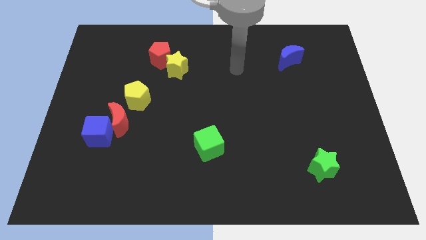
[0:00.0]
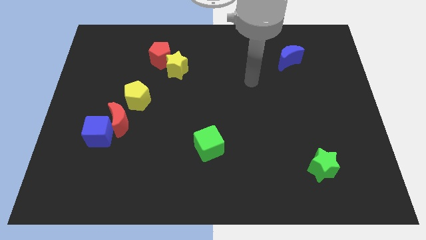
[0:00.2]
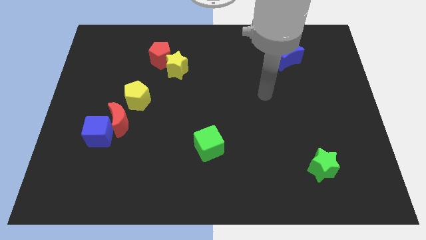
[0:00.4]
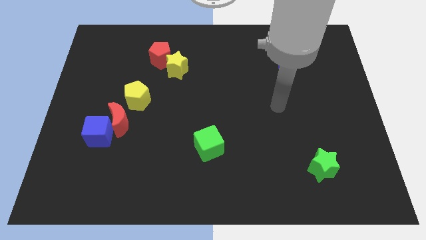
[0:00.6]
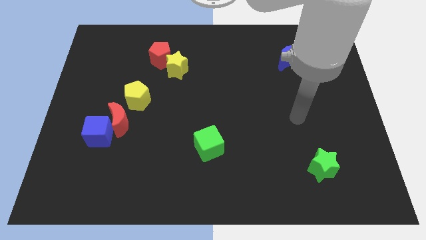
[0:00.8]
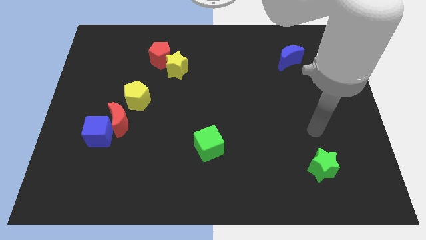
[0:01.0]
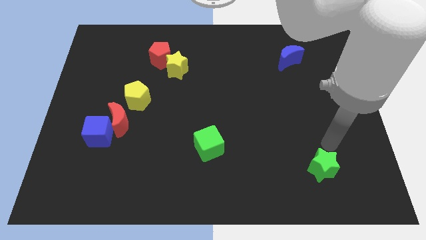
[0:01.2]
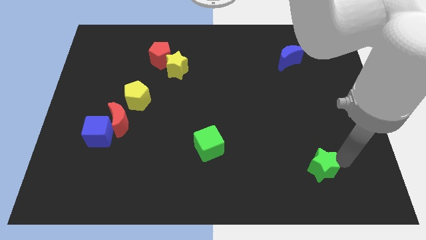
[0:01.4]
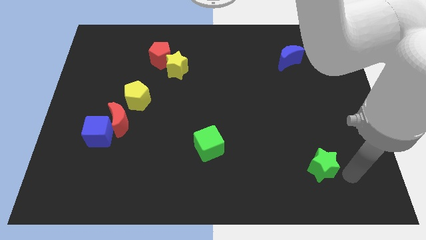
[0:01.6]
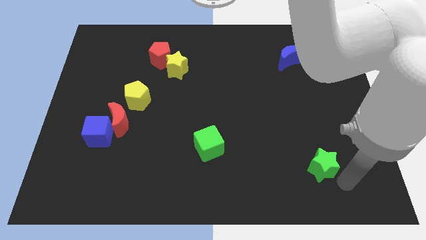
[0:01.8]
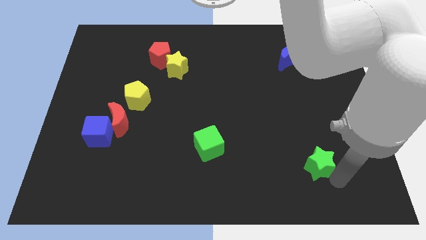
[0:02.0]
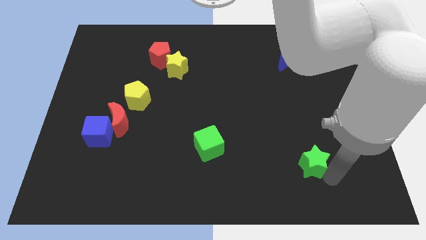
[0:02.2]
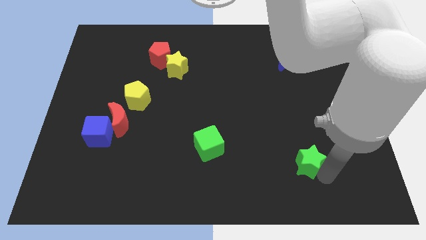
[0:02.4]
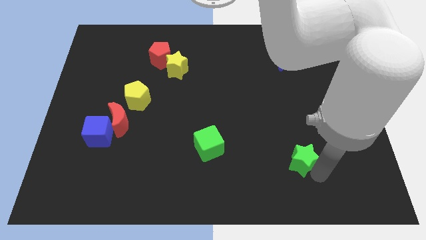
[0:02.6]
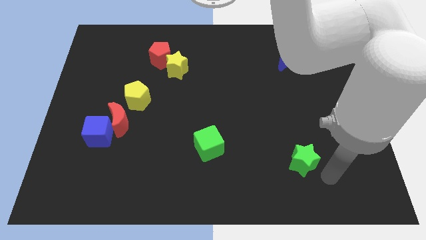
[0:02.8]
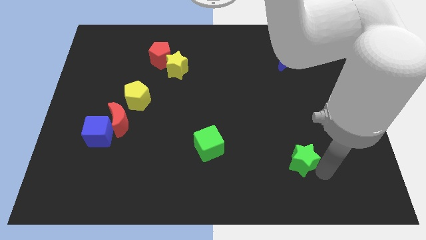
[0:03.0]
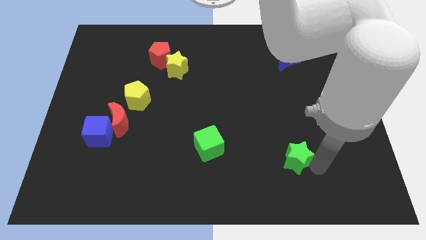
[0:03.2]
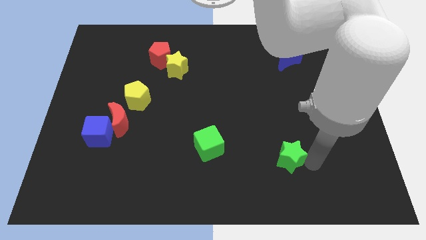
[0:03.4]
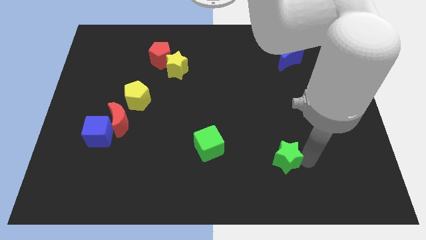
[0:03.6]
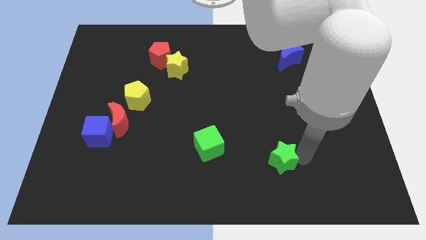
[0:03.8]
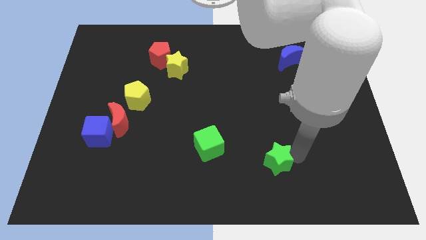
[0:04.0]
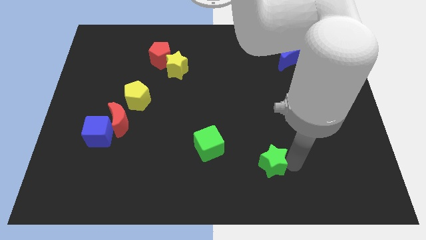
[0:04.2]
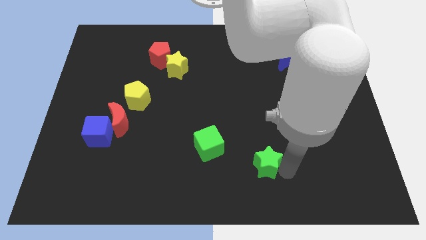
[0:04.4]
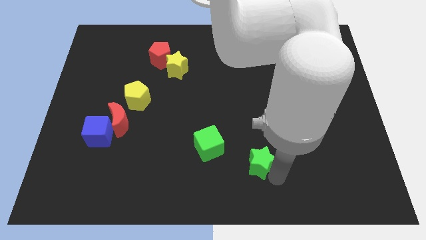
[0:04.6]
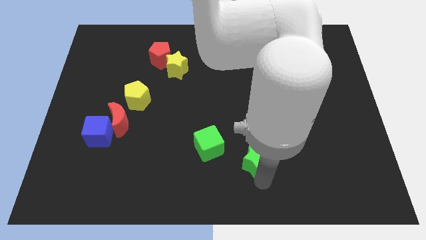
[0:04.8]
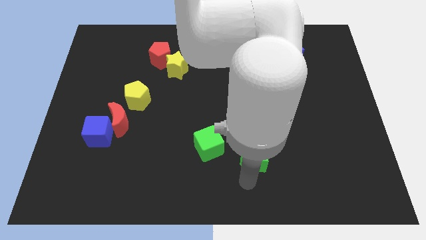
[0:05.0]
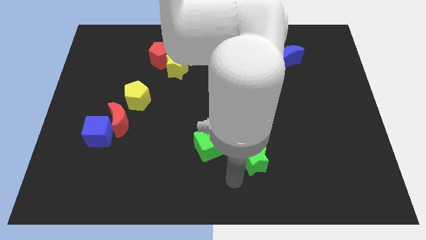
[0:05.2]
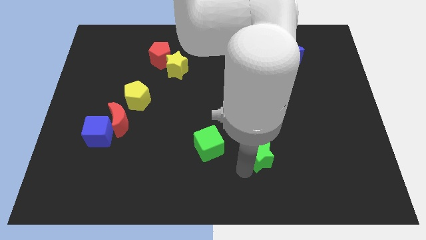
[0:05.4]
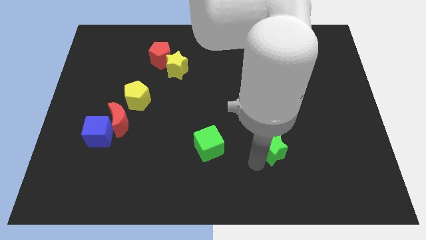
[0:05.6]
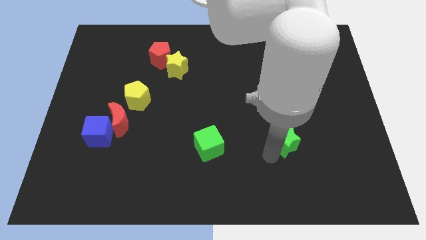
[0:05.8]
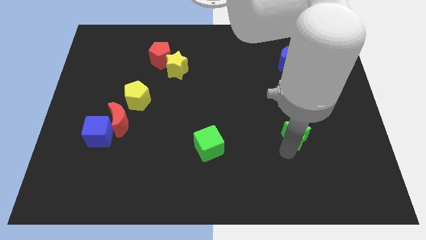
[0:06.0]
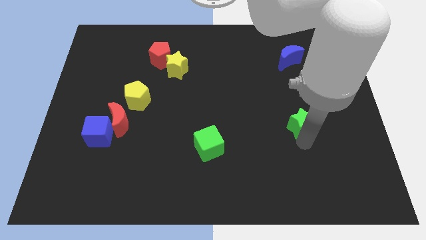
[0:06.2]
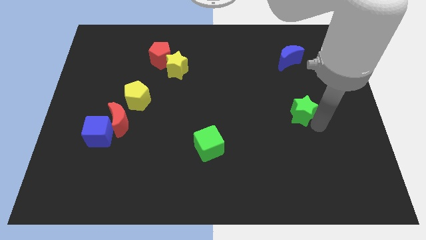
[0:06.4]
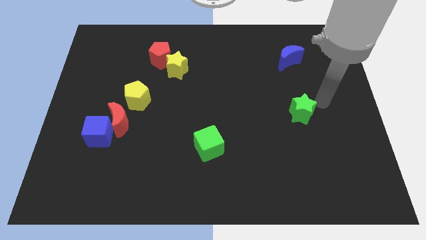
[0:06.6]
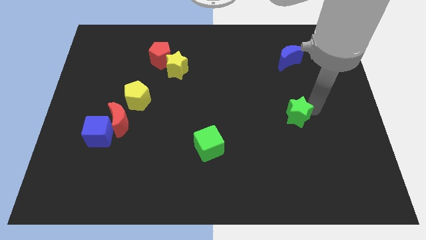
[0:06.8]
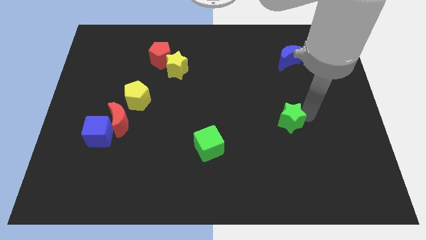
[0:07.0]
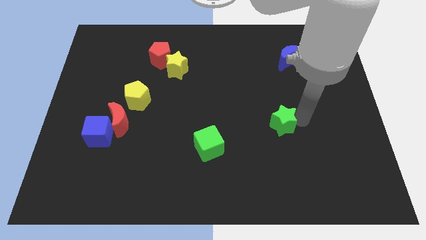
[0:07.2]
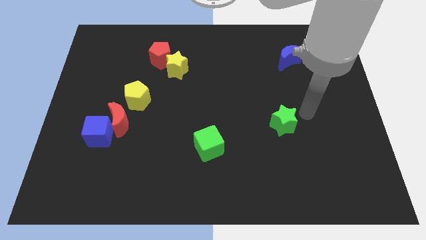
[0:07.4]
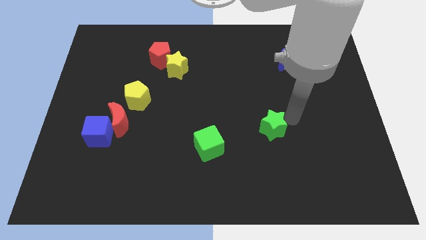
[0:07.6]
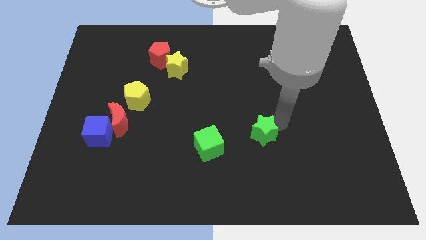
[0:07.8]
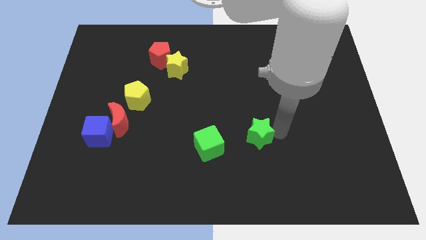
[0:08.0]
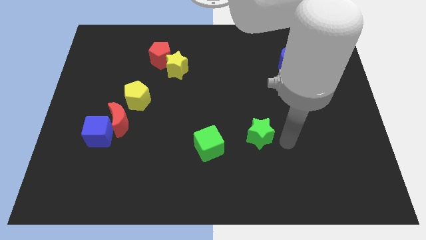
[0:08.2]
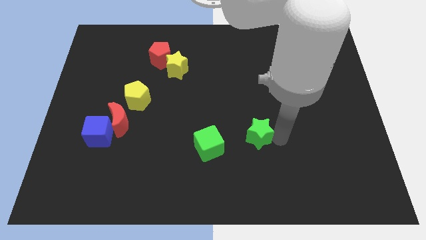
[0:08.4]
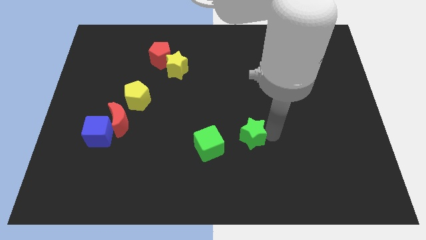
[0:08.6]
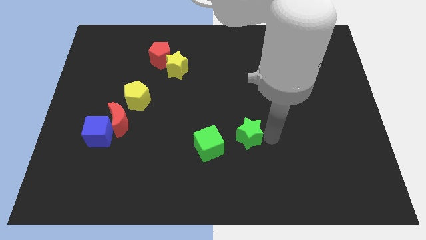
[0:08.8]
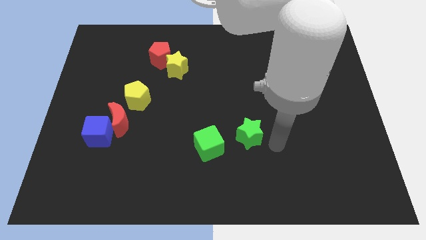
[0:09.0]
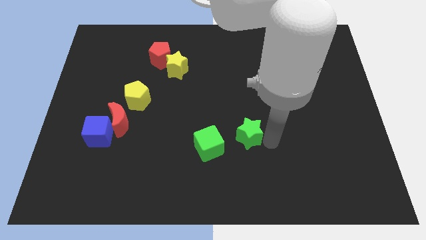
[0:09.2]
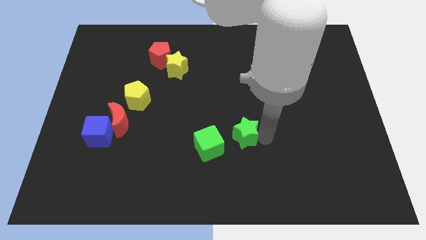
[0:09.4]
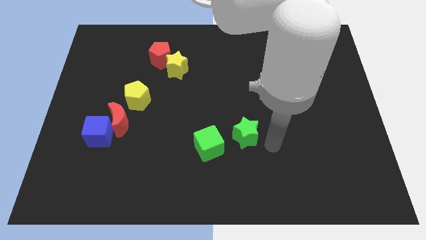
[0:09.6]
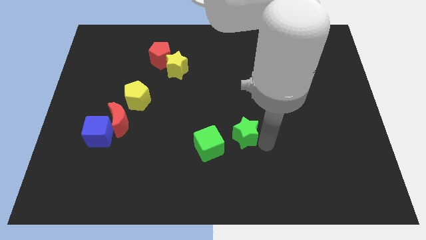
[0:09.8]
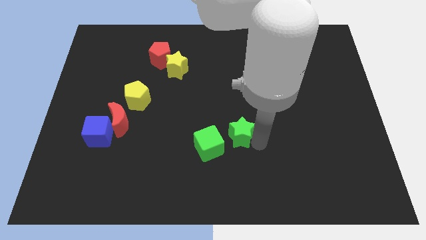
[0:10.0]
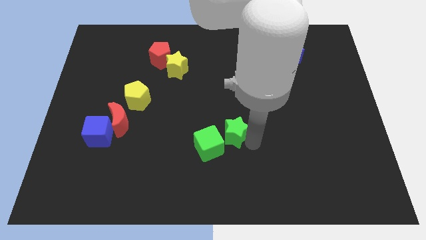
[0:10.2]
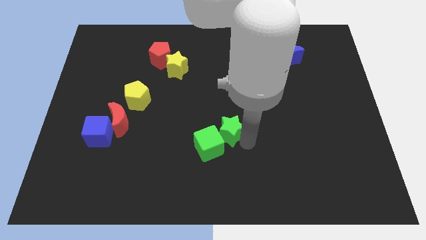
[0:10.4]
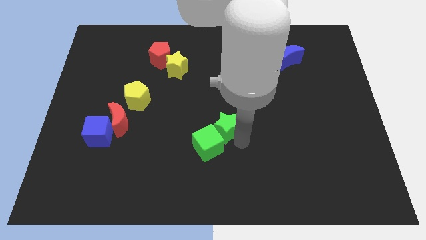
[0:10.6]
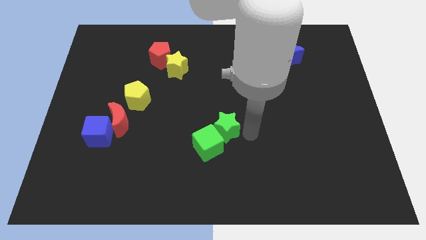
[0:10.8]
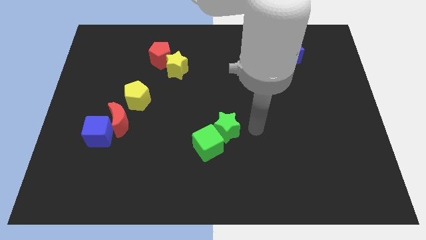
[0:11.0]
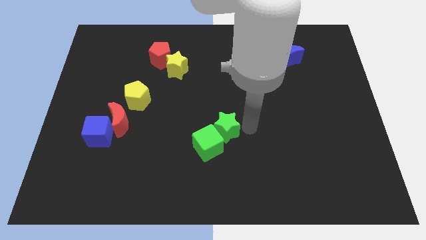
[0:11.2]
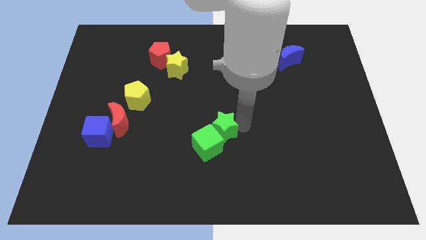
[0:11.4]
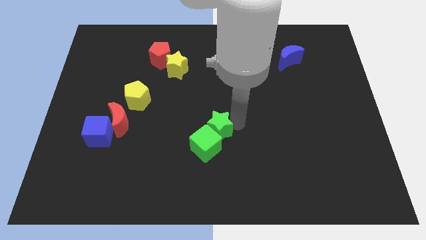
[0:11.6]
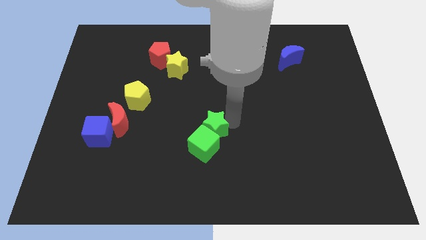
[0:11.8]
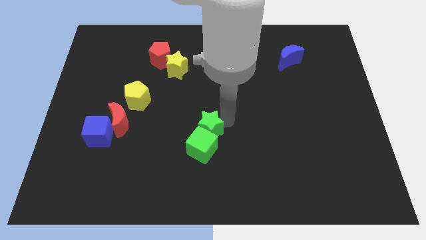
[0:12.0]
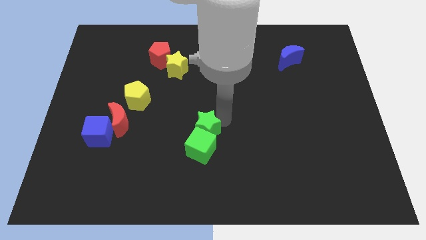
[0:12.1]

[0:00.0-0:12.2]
slide the green star to the top left side of the green cube

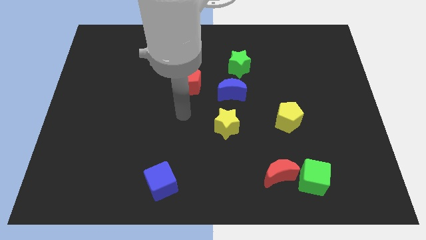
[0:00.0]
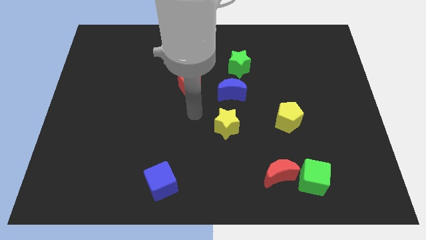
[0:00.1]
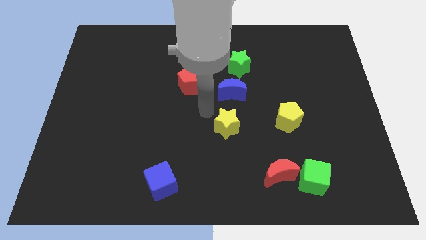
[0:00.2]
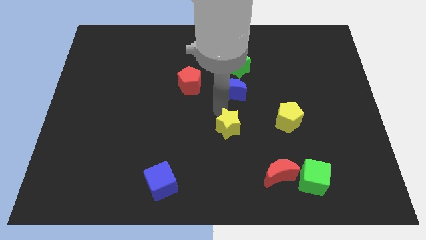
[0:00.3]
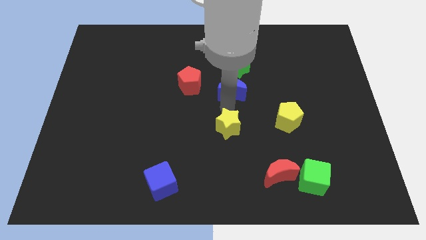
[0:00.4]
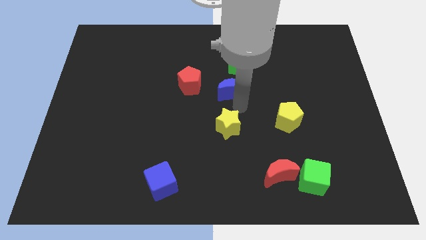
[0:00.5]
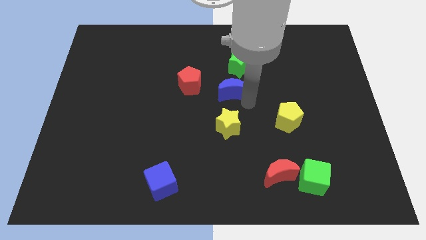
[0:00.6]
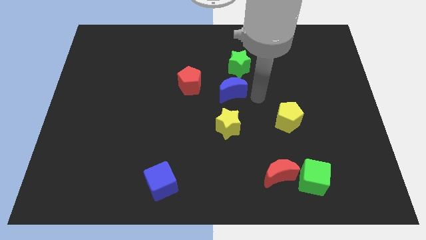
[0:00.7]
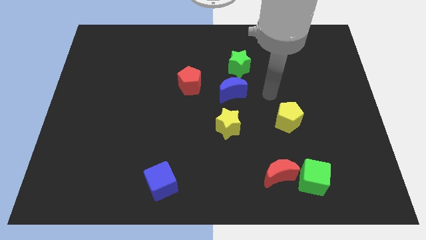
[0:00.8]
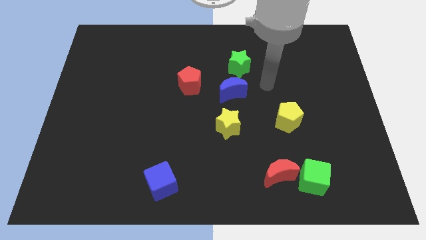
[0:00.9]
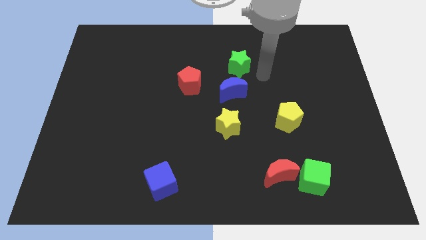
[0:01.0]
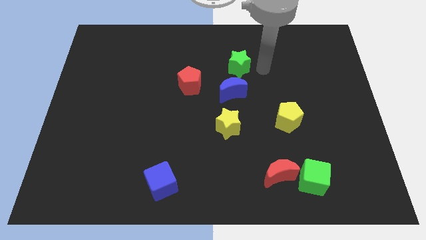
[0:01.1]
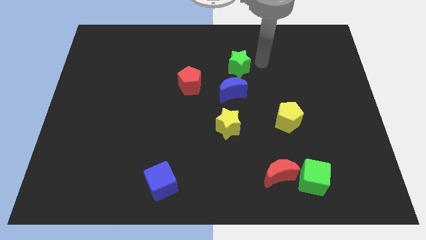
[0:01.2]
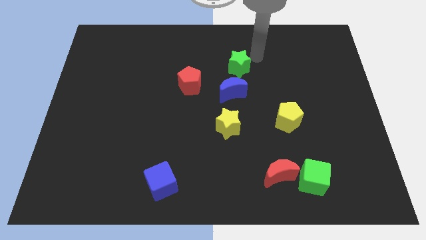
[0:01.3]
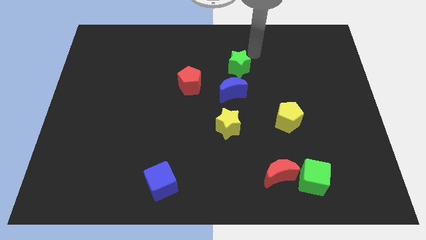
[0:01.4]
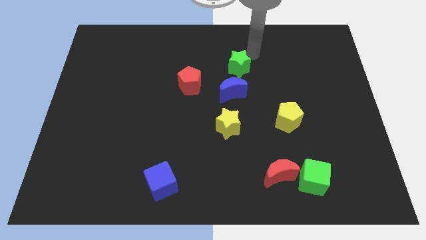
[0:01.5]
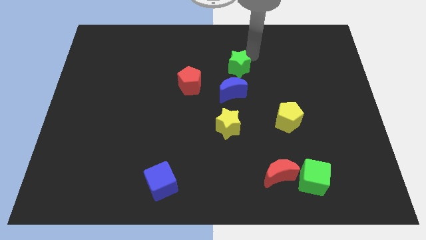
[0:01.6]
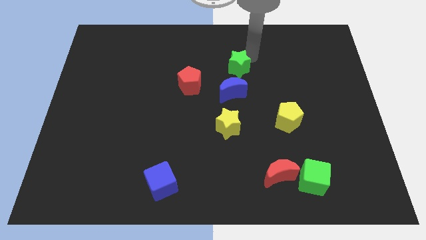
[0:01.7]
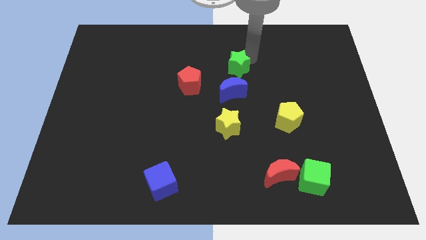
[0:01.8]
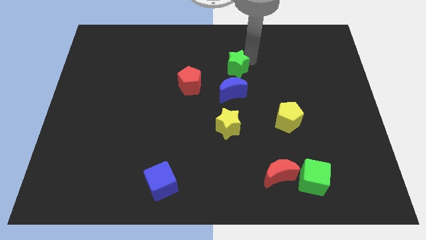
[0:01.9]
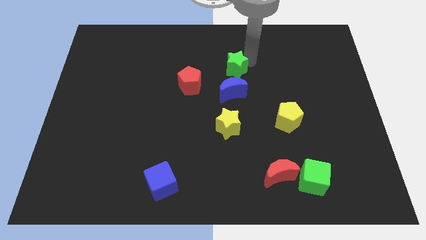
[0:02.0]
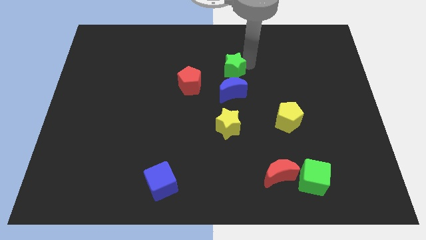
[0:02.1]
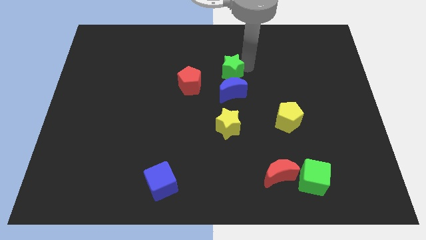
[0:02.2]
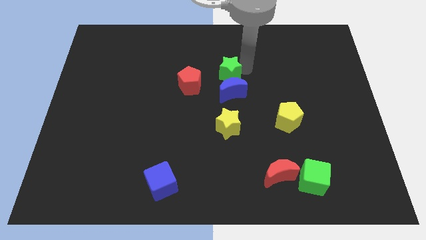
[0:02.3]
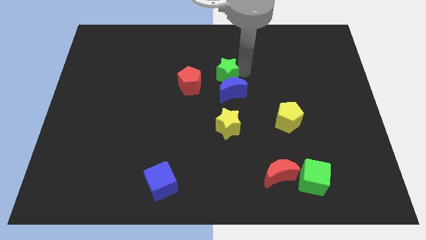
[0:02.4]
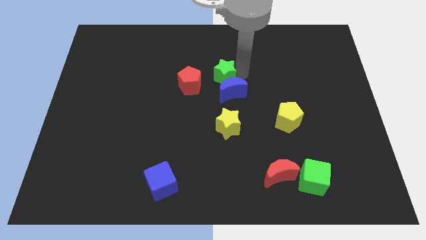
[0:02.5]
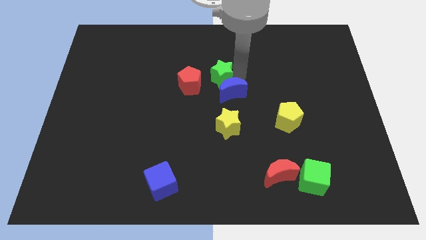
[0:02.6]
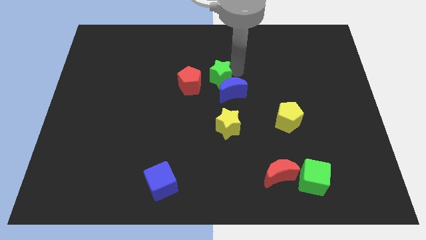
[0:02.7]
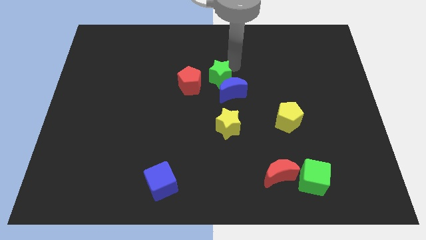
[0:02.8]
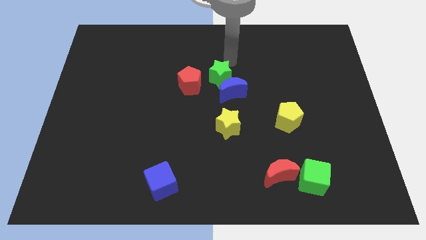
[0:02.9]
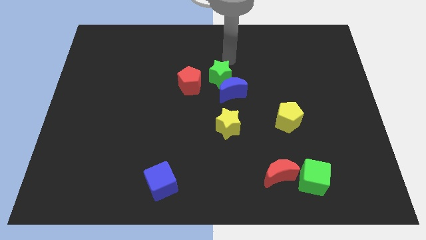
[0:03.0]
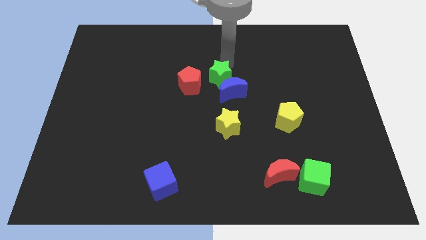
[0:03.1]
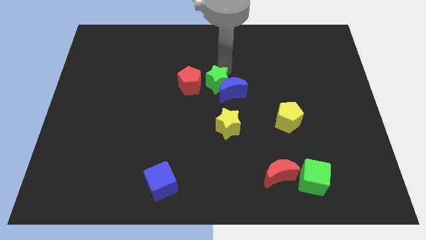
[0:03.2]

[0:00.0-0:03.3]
push the green star to the bottom right of the red pentagon
